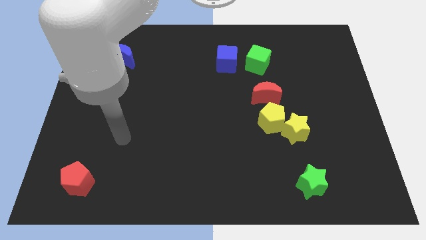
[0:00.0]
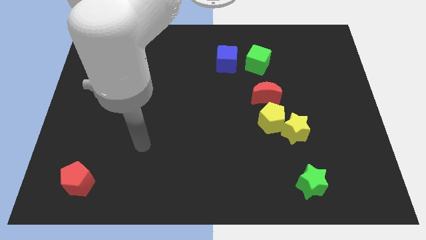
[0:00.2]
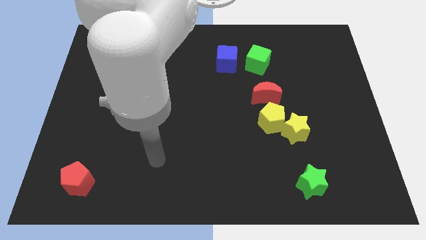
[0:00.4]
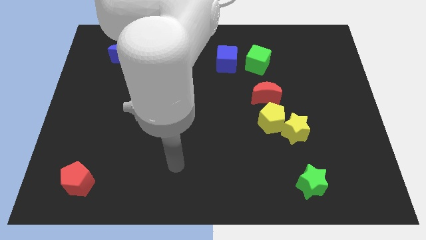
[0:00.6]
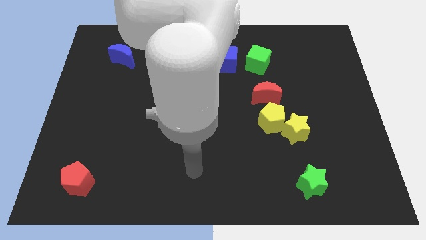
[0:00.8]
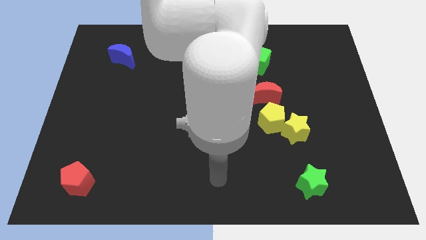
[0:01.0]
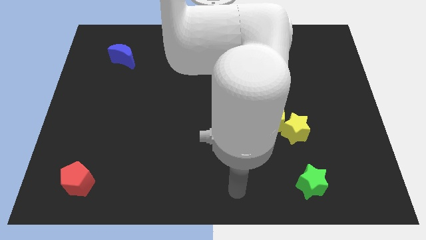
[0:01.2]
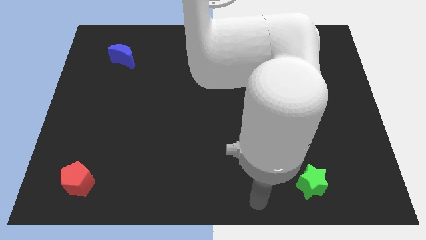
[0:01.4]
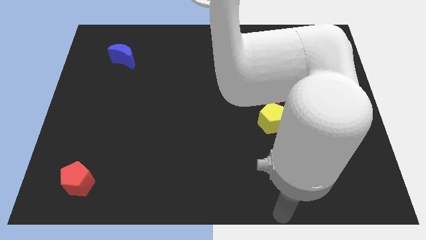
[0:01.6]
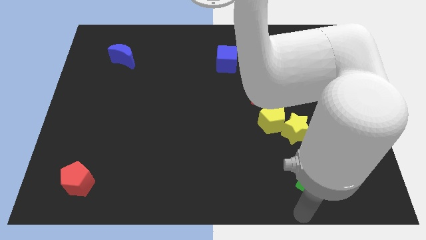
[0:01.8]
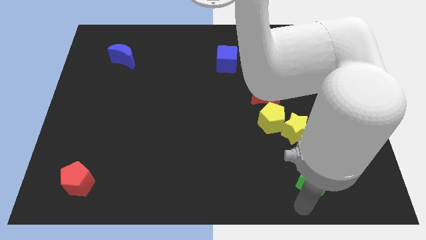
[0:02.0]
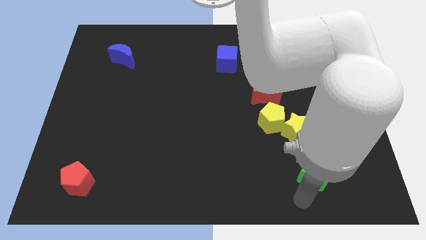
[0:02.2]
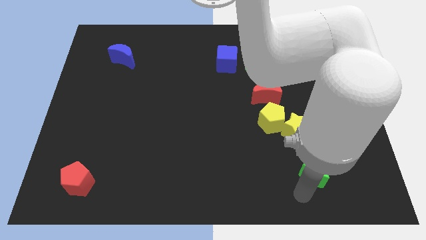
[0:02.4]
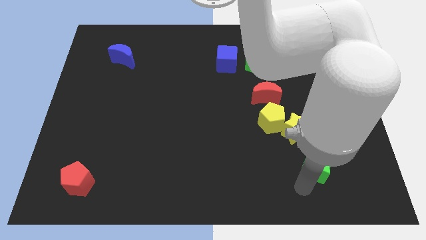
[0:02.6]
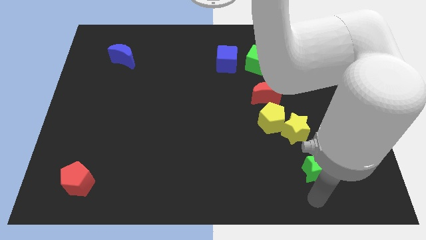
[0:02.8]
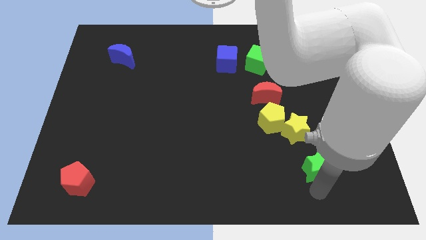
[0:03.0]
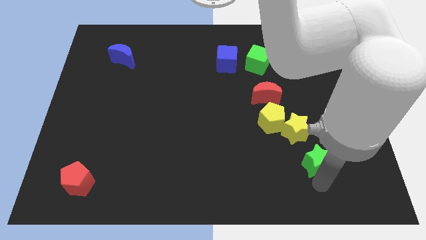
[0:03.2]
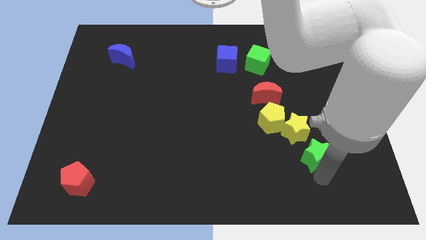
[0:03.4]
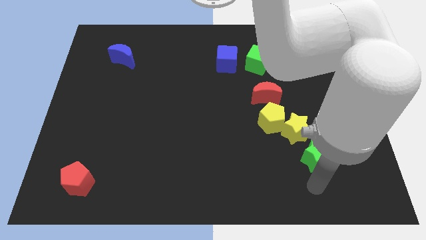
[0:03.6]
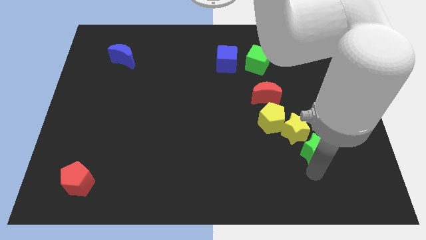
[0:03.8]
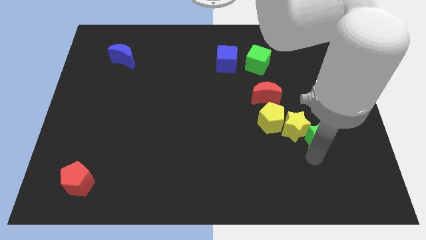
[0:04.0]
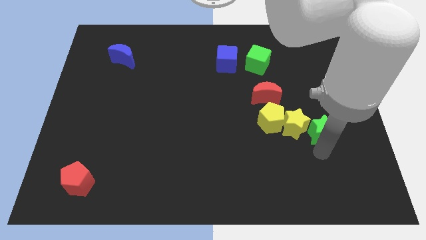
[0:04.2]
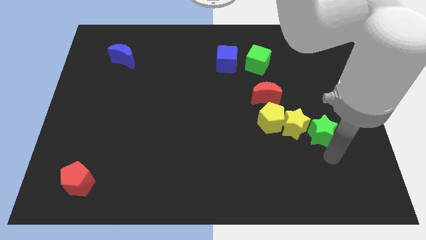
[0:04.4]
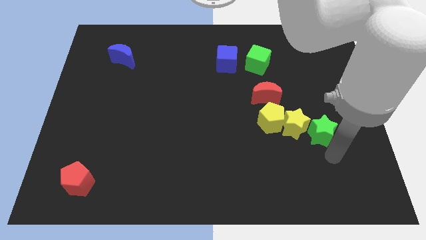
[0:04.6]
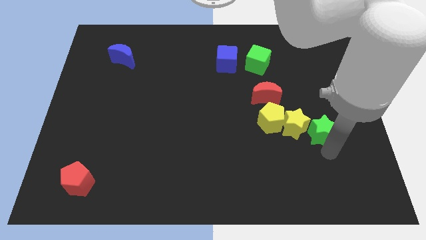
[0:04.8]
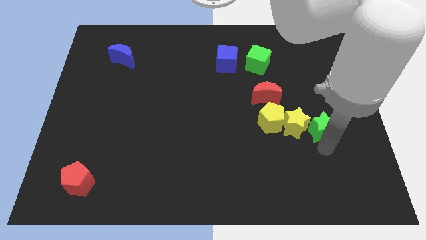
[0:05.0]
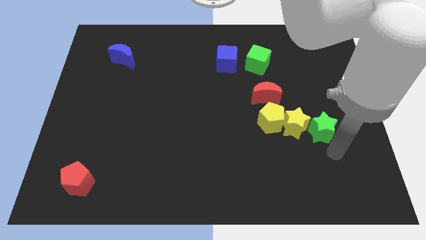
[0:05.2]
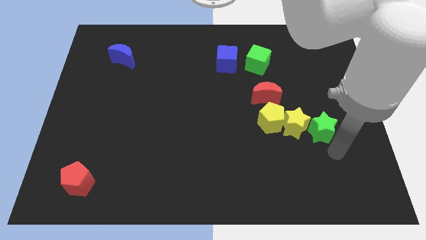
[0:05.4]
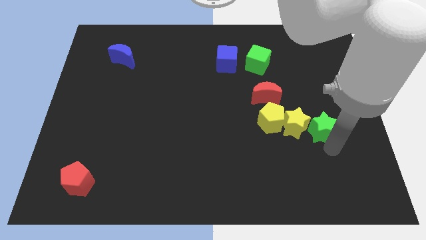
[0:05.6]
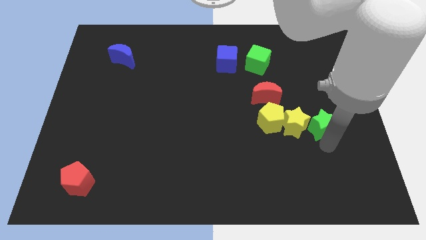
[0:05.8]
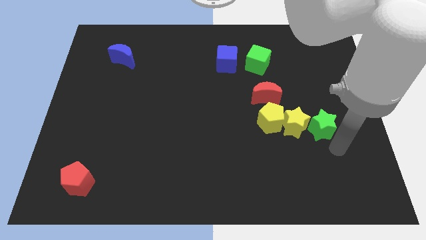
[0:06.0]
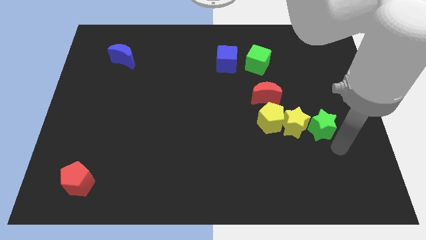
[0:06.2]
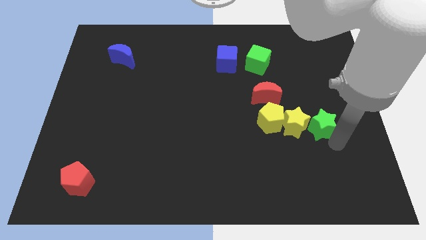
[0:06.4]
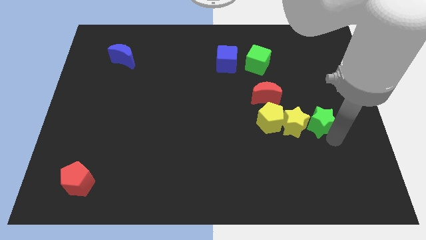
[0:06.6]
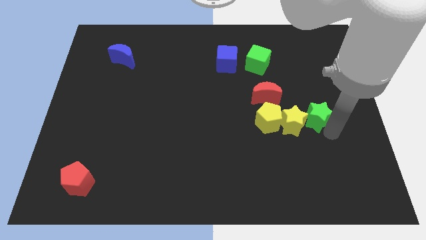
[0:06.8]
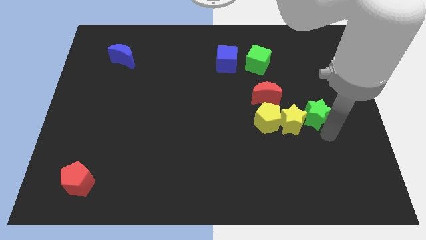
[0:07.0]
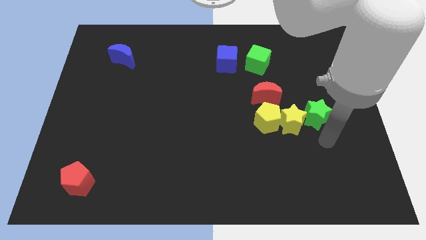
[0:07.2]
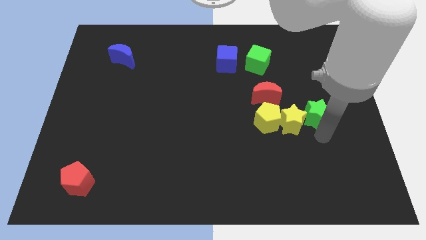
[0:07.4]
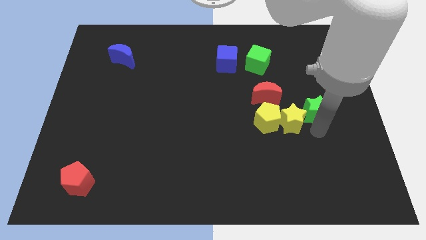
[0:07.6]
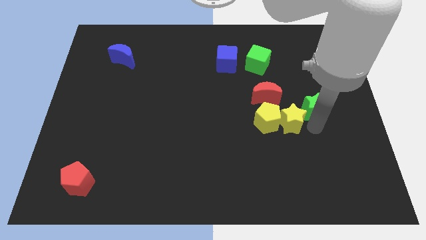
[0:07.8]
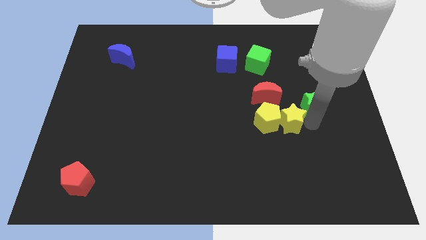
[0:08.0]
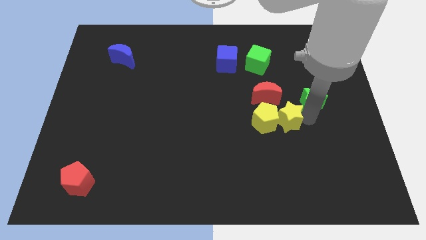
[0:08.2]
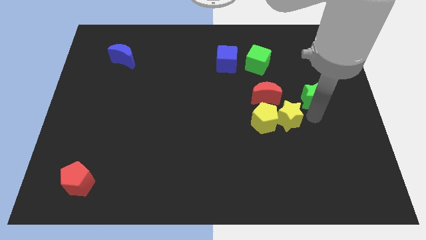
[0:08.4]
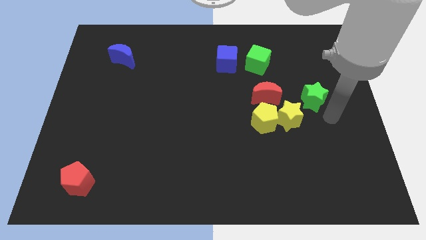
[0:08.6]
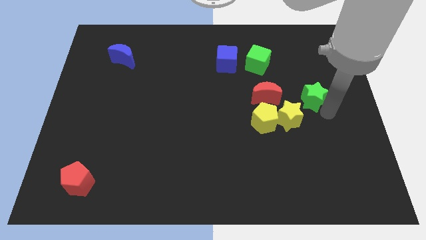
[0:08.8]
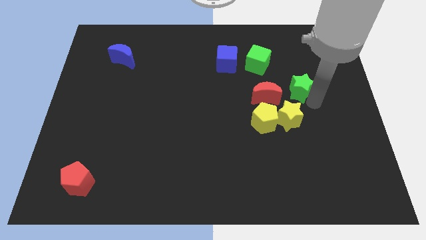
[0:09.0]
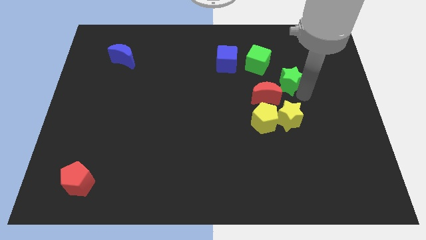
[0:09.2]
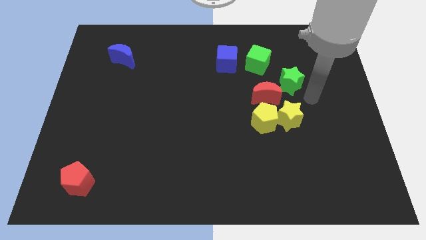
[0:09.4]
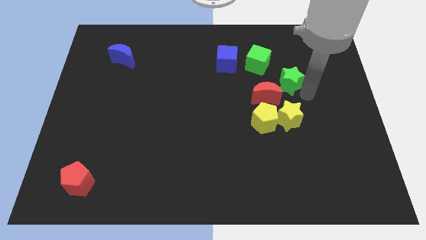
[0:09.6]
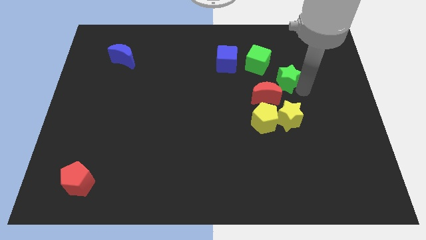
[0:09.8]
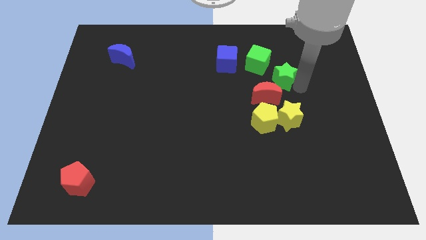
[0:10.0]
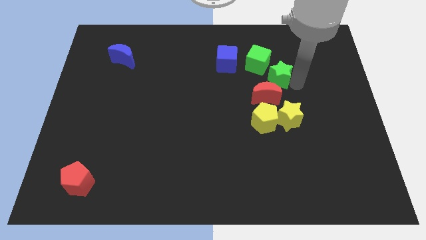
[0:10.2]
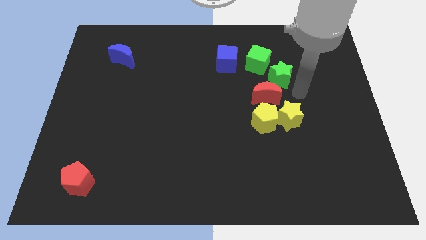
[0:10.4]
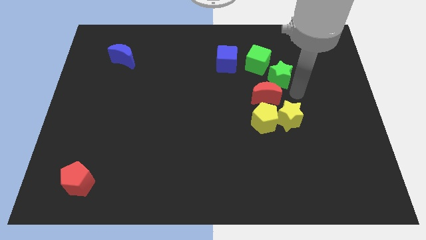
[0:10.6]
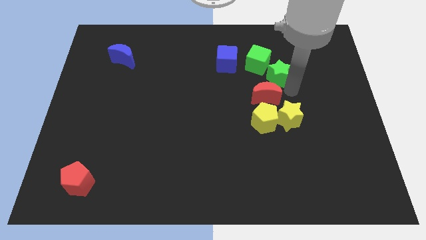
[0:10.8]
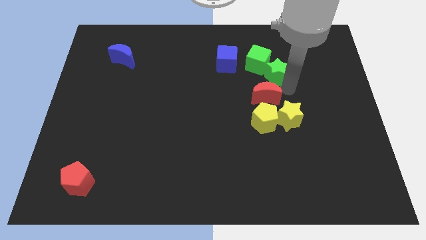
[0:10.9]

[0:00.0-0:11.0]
put the green star to the green cube

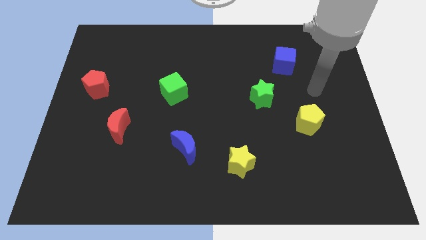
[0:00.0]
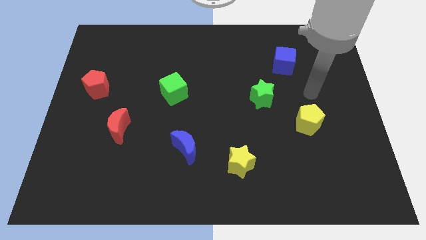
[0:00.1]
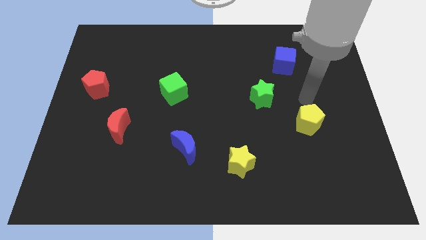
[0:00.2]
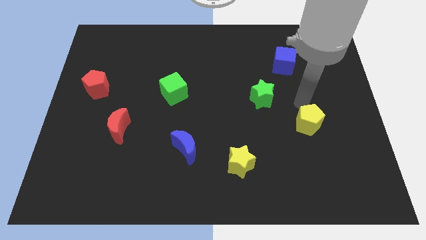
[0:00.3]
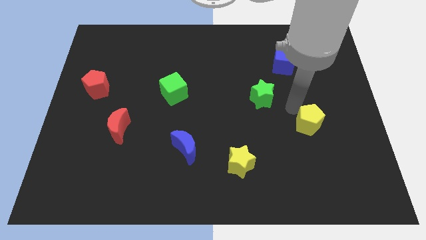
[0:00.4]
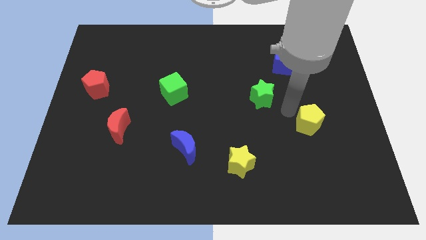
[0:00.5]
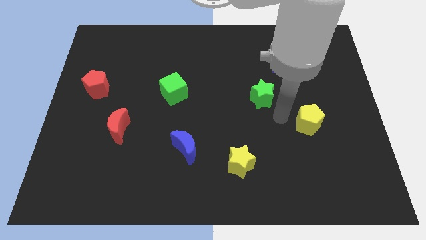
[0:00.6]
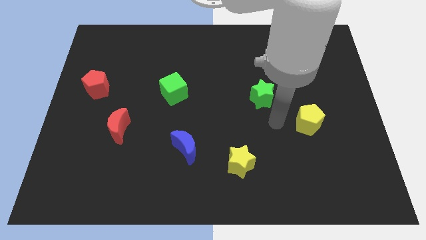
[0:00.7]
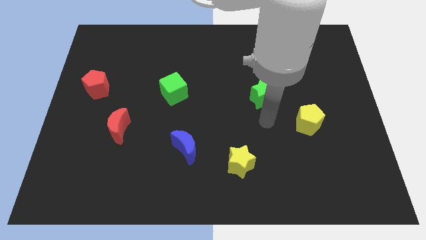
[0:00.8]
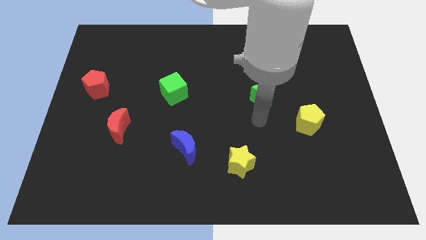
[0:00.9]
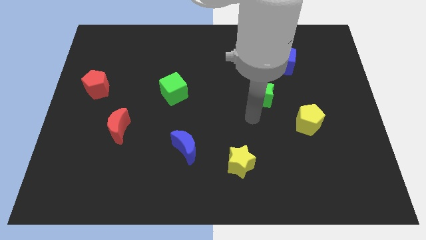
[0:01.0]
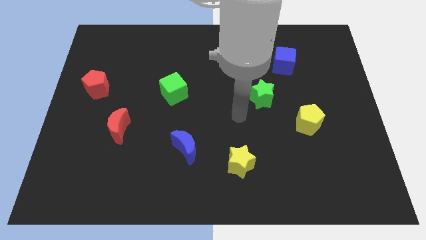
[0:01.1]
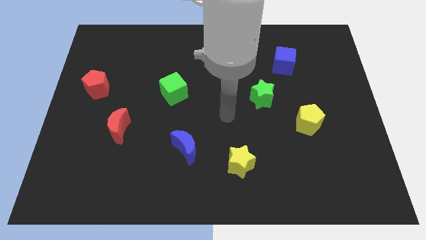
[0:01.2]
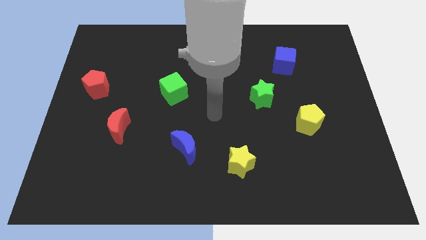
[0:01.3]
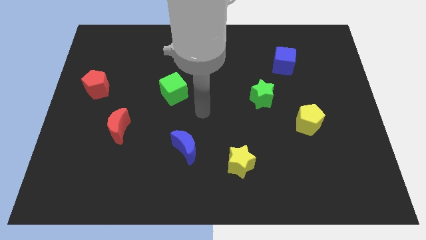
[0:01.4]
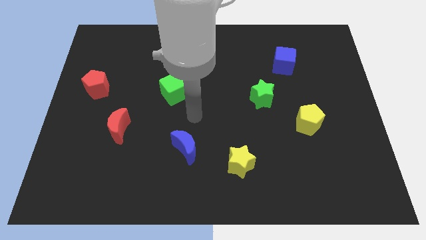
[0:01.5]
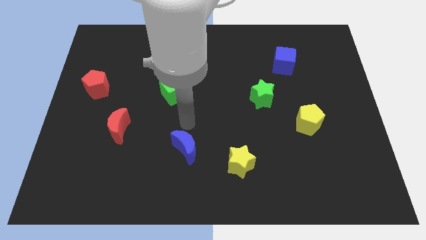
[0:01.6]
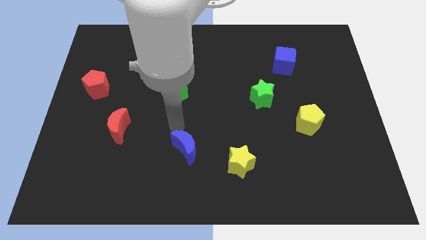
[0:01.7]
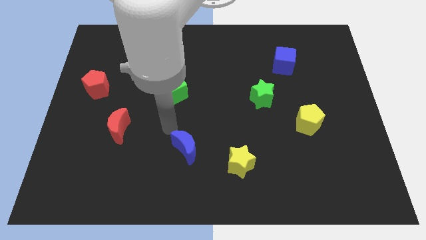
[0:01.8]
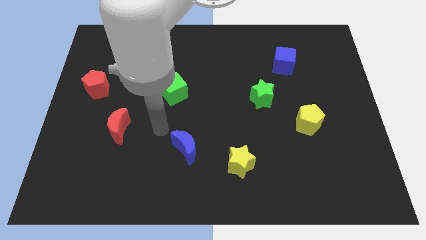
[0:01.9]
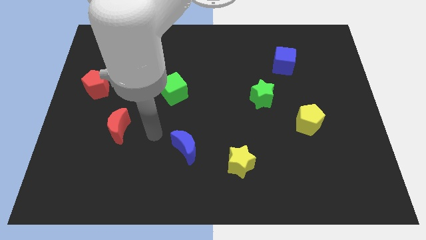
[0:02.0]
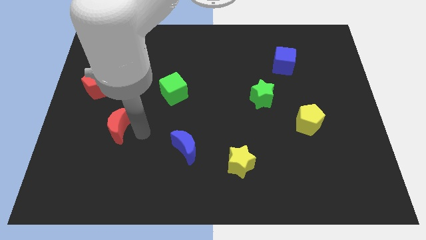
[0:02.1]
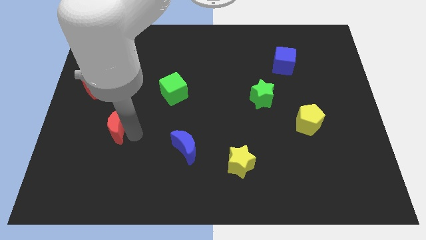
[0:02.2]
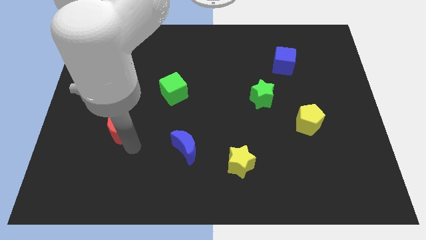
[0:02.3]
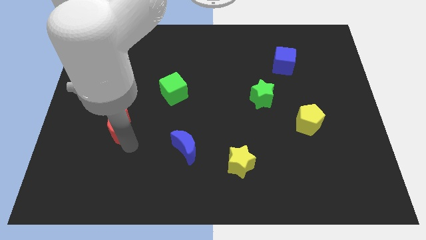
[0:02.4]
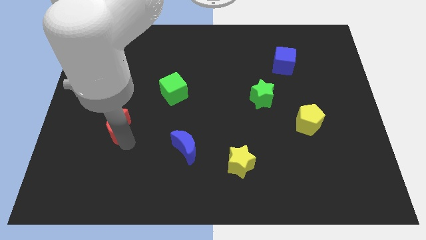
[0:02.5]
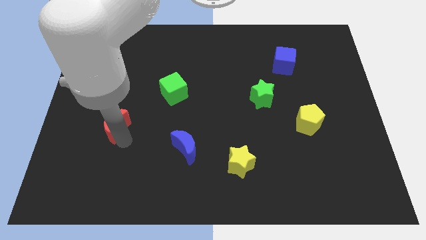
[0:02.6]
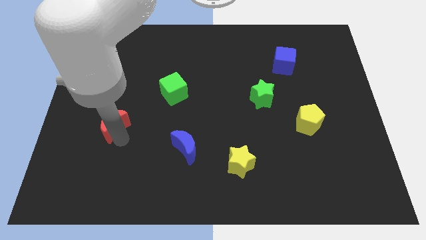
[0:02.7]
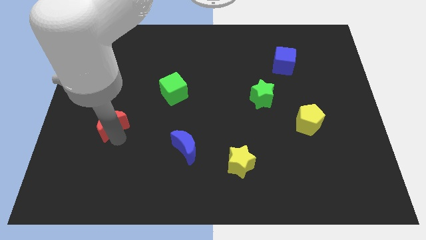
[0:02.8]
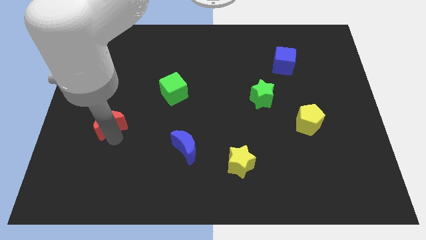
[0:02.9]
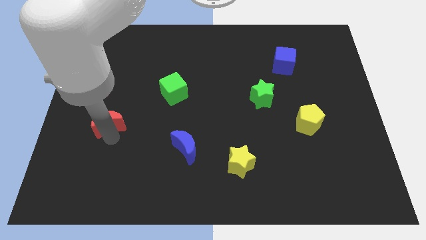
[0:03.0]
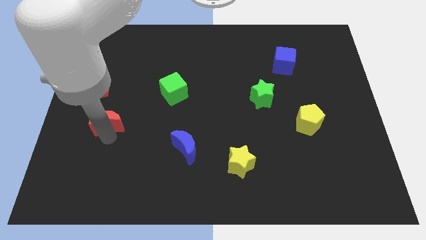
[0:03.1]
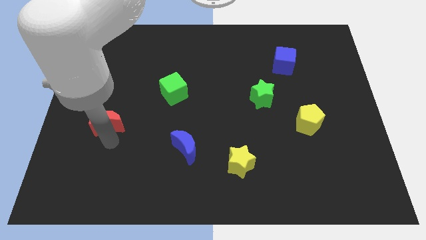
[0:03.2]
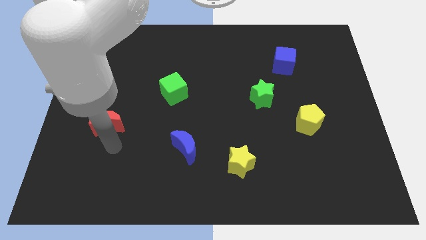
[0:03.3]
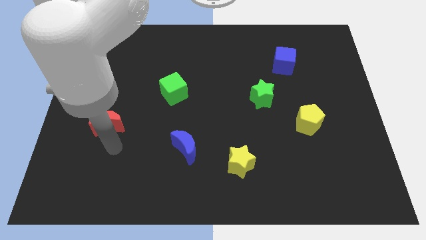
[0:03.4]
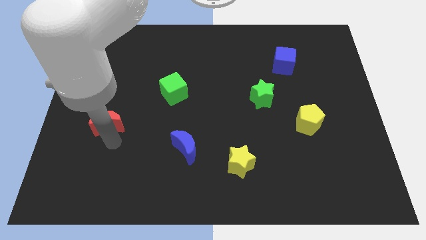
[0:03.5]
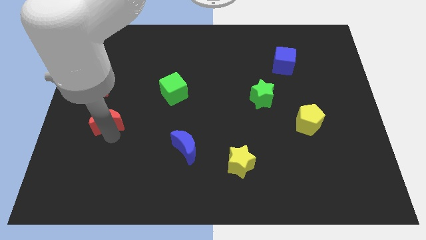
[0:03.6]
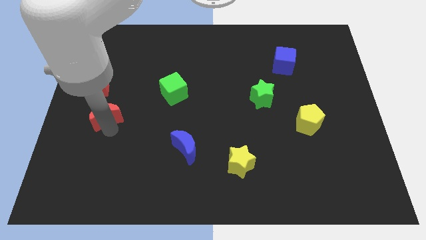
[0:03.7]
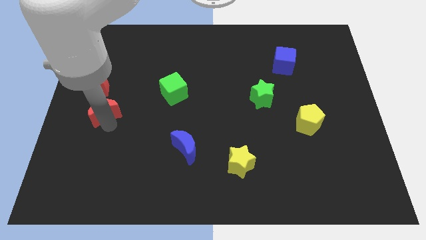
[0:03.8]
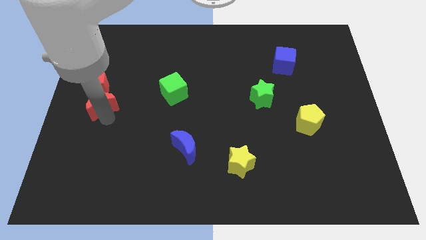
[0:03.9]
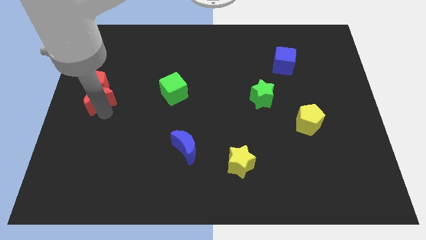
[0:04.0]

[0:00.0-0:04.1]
move the red moon close to the red pentagon
